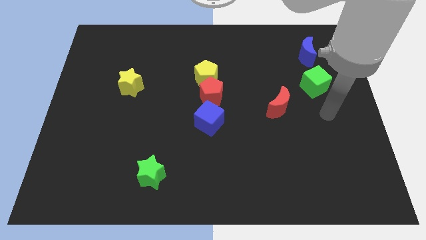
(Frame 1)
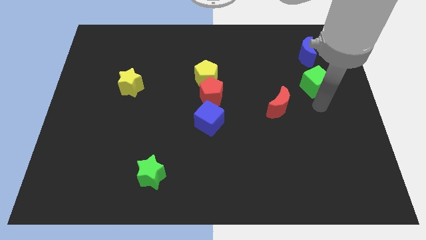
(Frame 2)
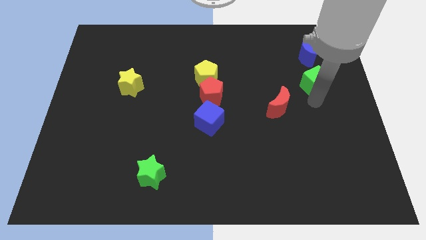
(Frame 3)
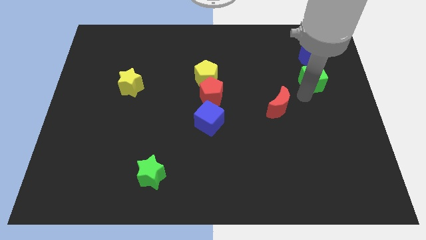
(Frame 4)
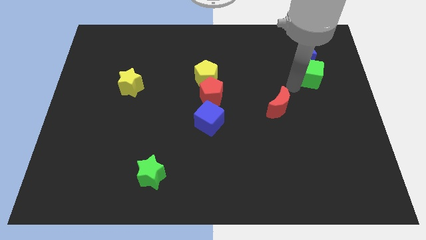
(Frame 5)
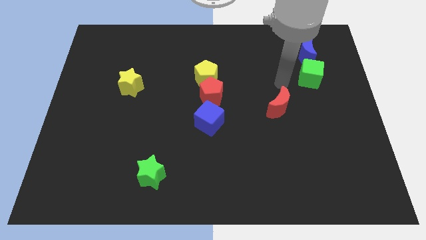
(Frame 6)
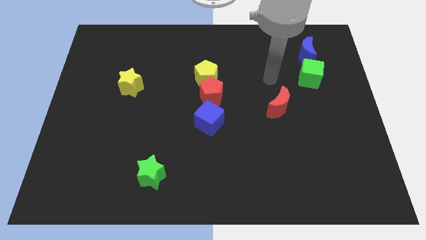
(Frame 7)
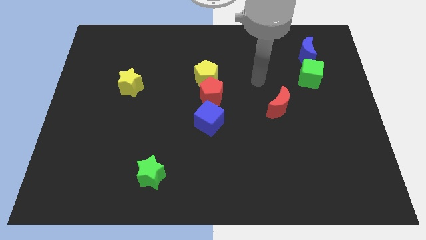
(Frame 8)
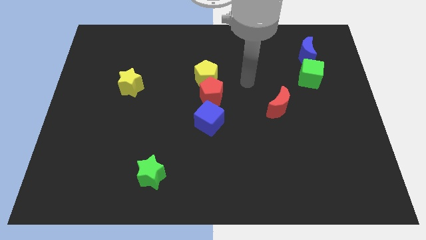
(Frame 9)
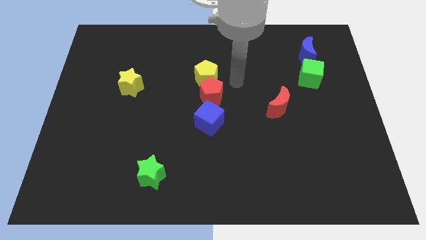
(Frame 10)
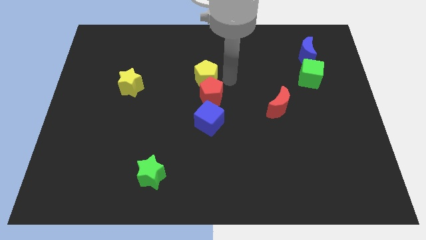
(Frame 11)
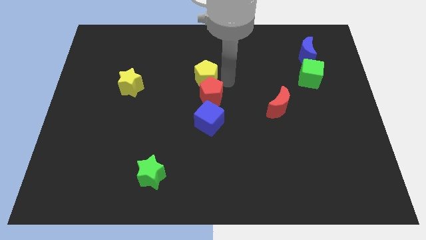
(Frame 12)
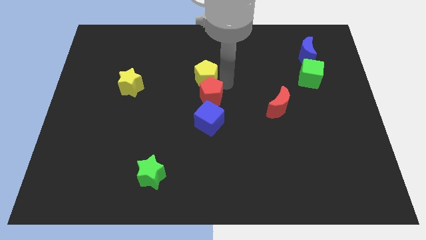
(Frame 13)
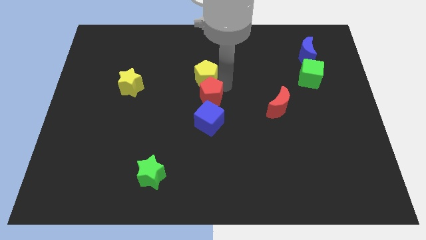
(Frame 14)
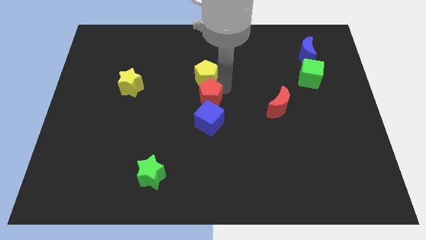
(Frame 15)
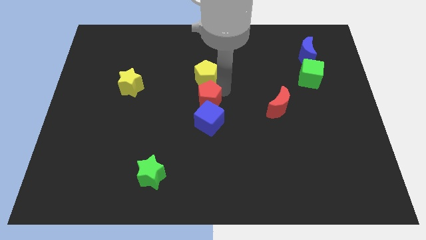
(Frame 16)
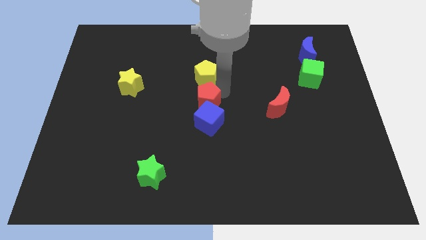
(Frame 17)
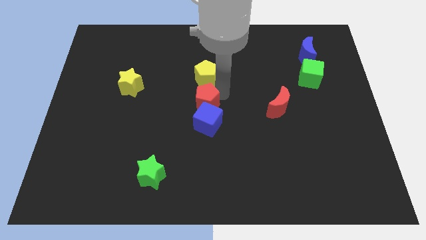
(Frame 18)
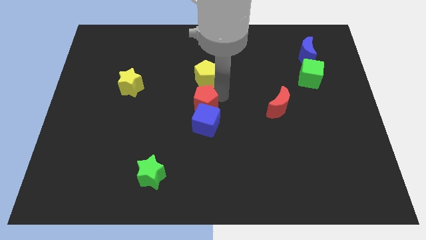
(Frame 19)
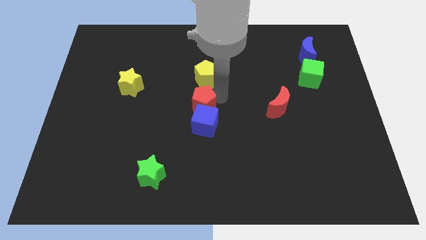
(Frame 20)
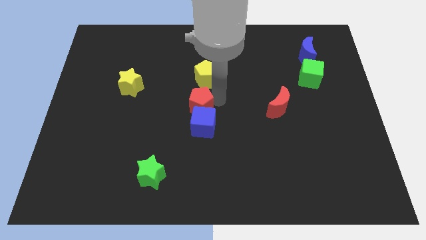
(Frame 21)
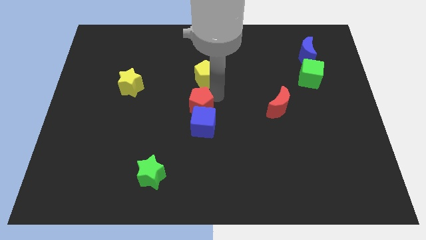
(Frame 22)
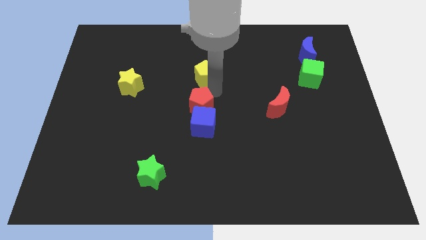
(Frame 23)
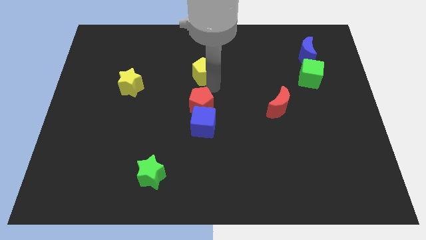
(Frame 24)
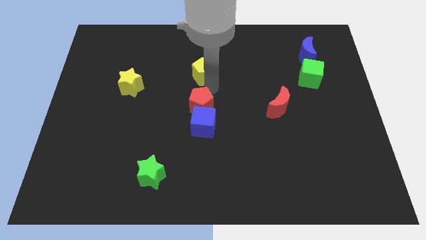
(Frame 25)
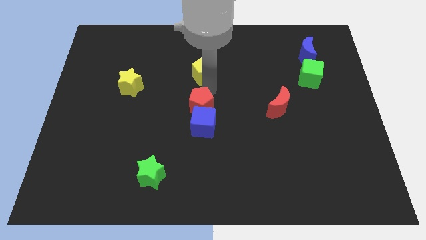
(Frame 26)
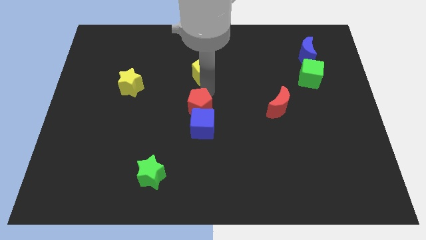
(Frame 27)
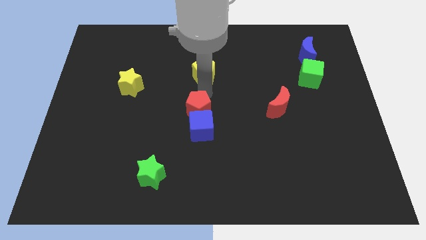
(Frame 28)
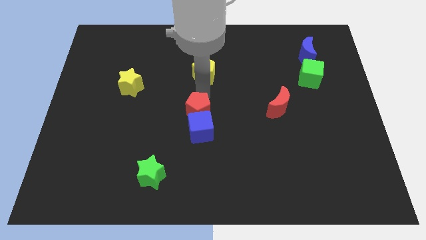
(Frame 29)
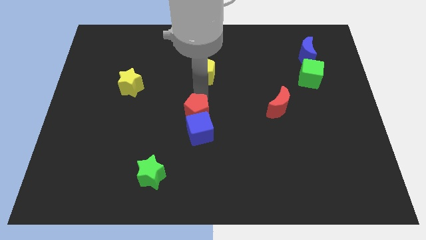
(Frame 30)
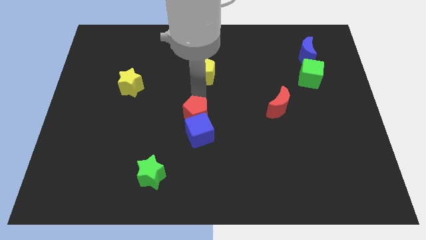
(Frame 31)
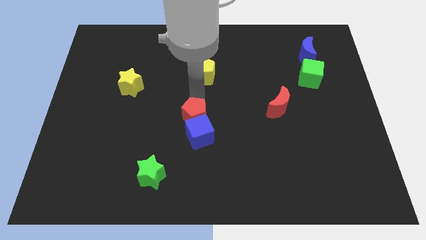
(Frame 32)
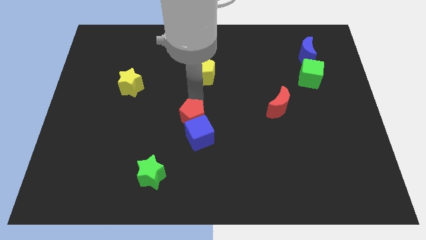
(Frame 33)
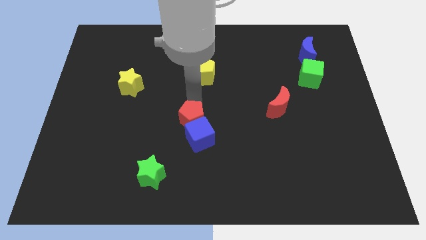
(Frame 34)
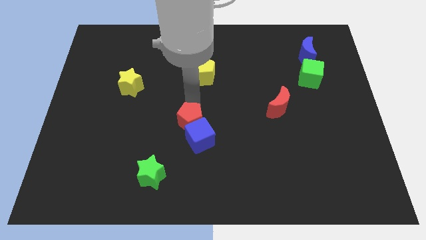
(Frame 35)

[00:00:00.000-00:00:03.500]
slide the red pentagon down a bit

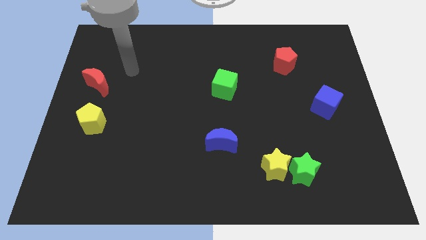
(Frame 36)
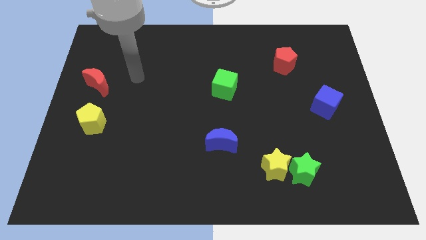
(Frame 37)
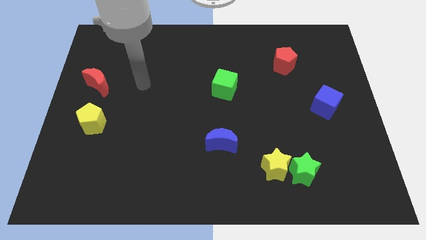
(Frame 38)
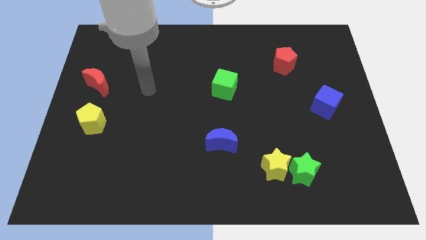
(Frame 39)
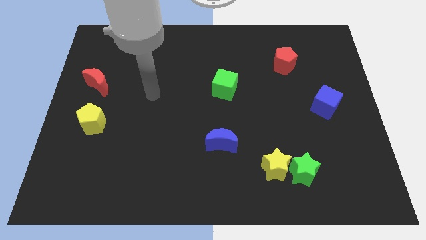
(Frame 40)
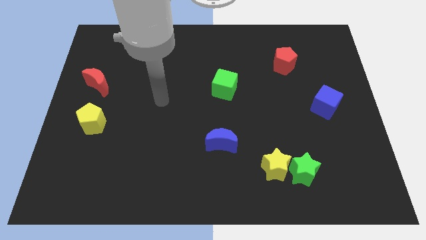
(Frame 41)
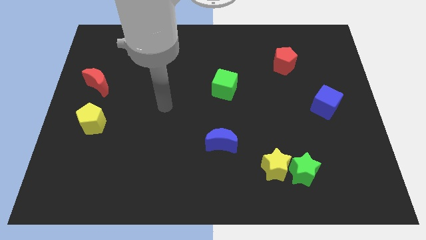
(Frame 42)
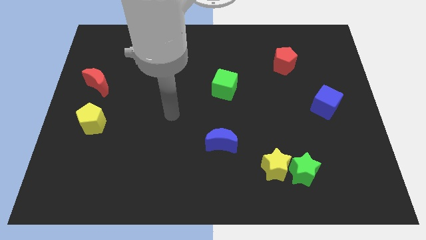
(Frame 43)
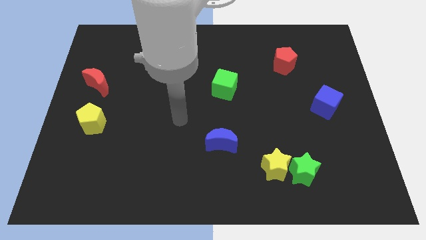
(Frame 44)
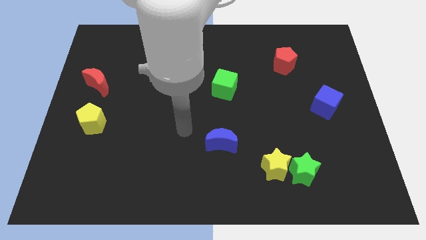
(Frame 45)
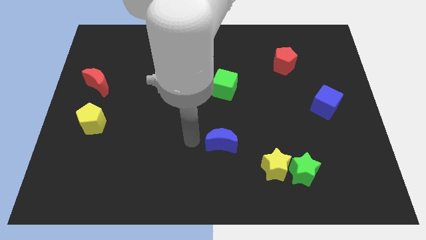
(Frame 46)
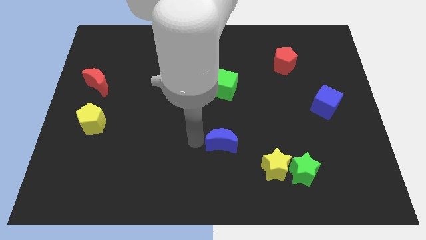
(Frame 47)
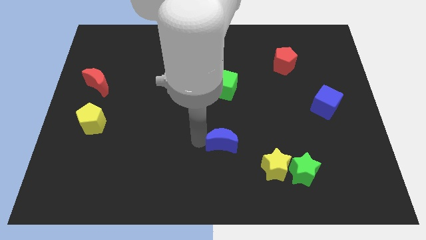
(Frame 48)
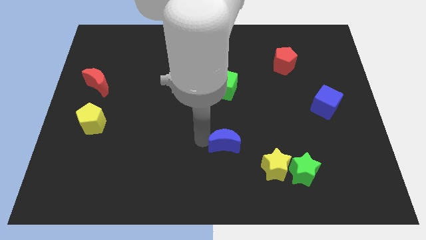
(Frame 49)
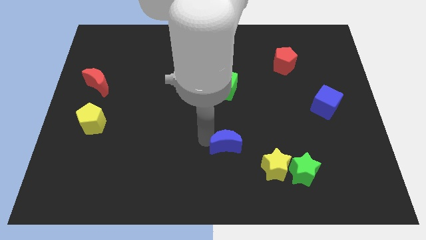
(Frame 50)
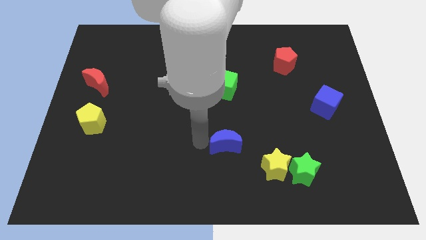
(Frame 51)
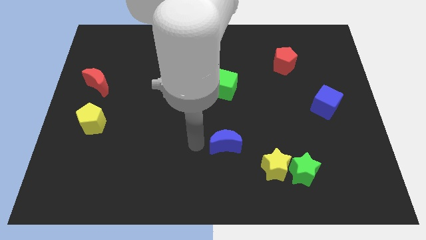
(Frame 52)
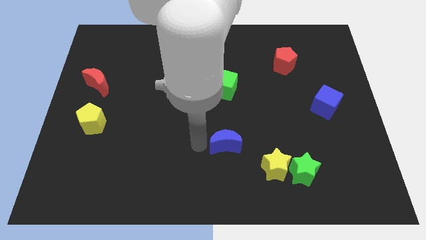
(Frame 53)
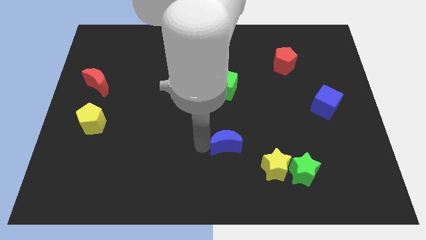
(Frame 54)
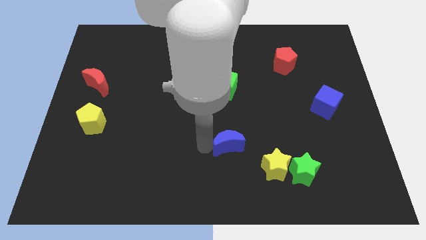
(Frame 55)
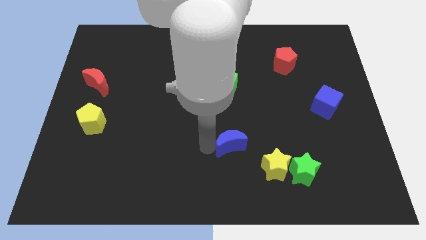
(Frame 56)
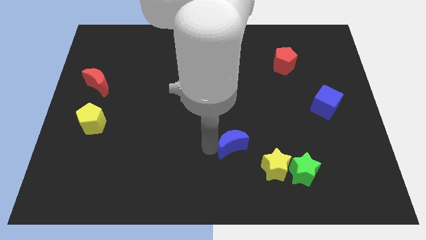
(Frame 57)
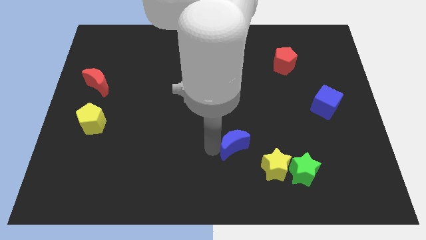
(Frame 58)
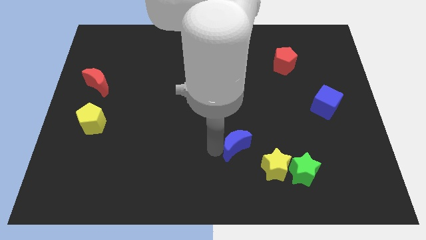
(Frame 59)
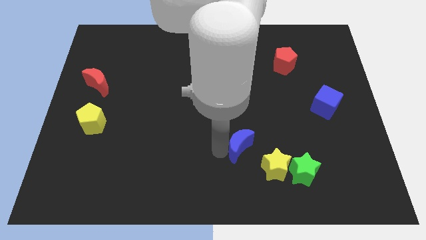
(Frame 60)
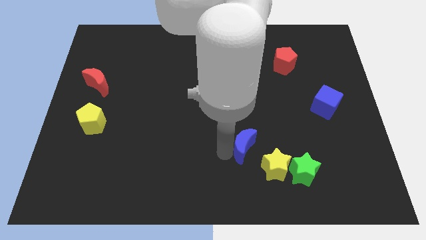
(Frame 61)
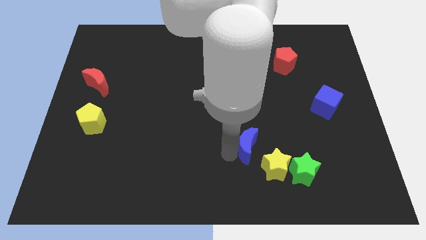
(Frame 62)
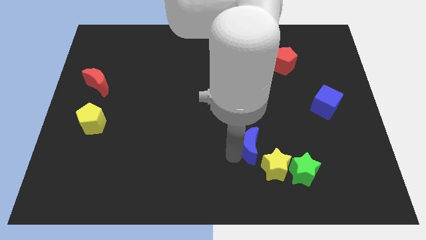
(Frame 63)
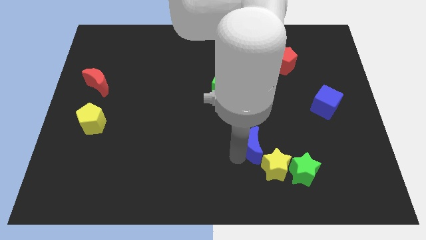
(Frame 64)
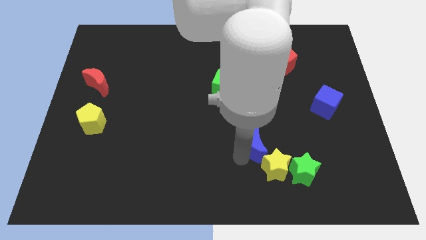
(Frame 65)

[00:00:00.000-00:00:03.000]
slightly move the blue moon to the right

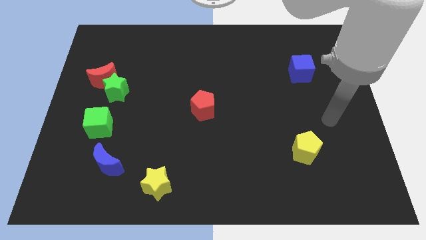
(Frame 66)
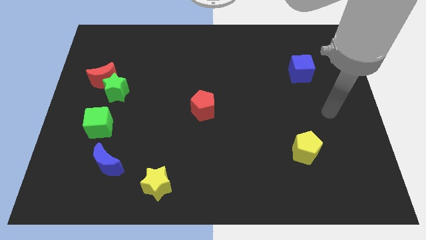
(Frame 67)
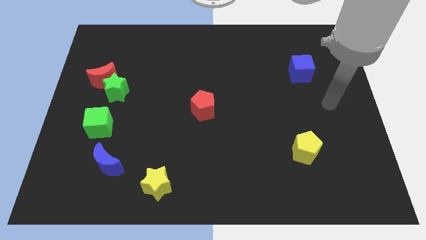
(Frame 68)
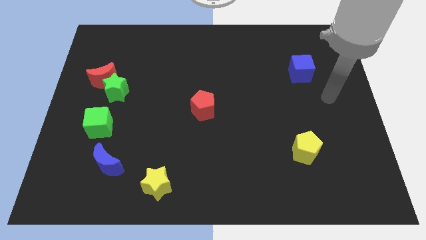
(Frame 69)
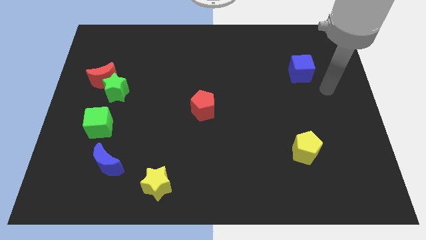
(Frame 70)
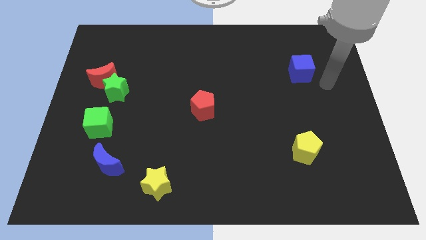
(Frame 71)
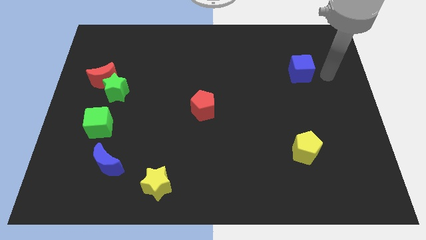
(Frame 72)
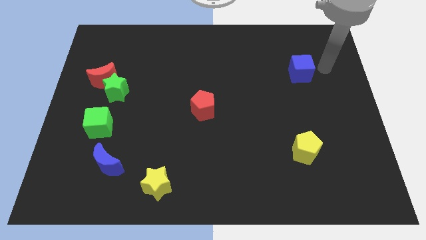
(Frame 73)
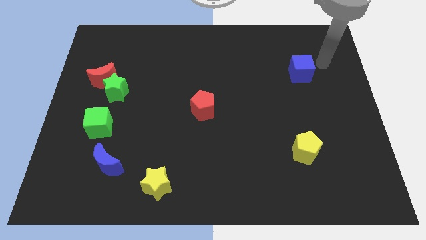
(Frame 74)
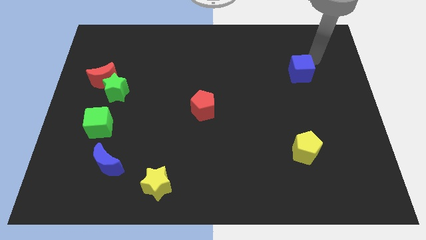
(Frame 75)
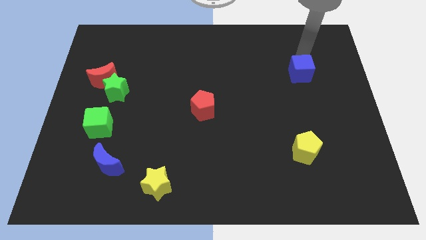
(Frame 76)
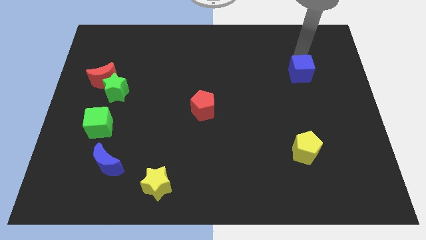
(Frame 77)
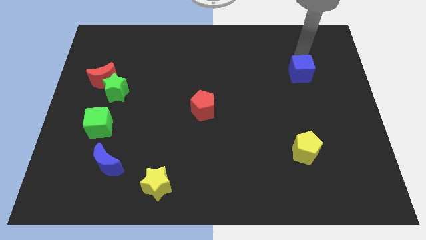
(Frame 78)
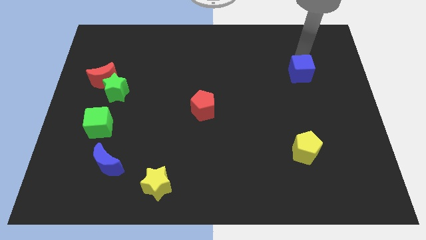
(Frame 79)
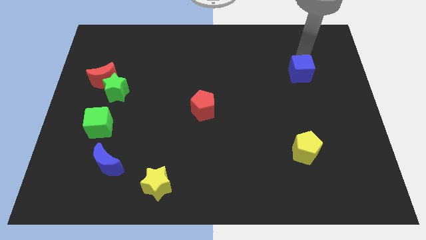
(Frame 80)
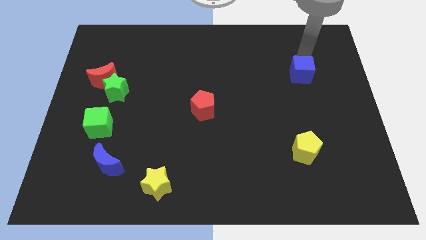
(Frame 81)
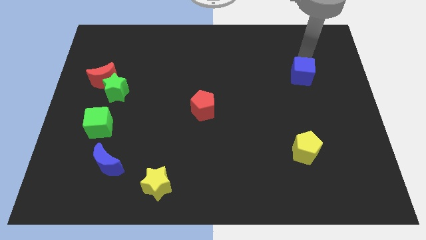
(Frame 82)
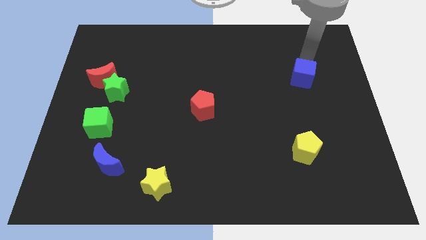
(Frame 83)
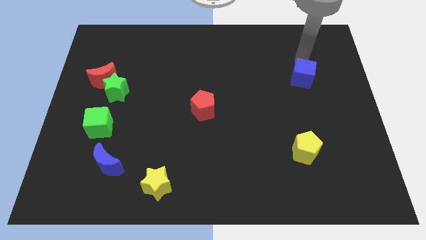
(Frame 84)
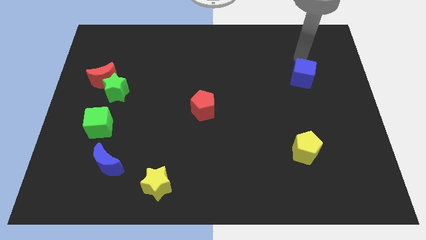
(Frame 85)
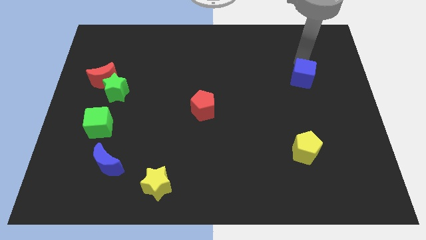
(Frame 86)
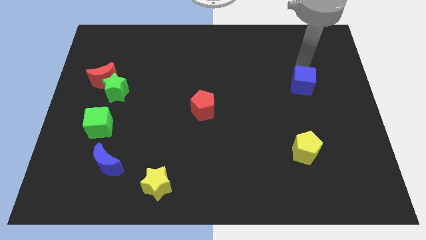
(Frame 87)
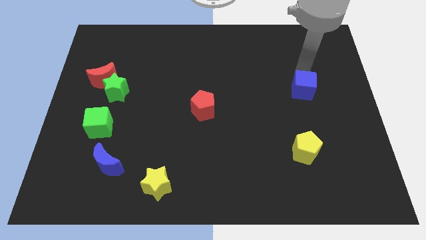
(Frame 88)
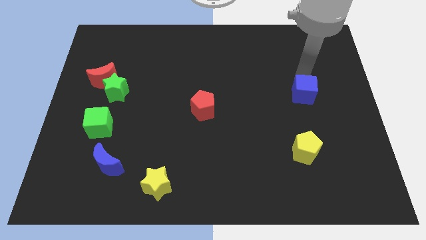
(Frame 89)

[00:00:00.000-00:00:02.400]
move the blue cube slightly downwards
